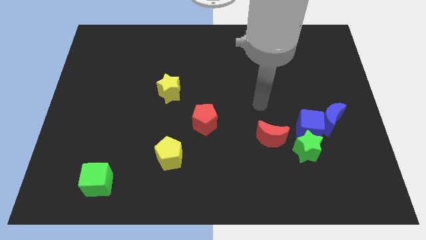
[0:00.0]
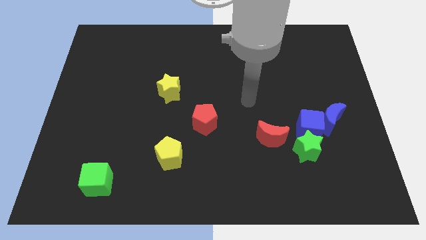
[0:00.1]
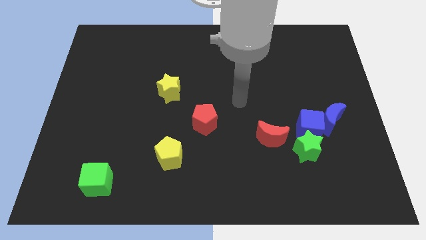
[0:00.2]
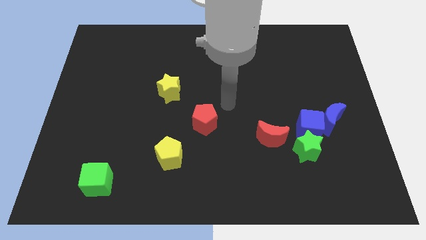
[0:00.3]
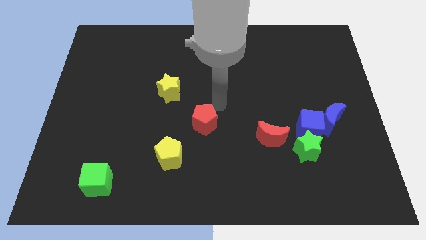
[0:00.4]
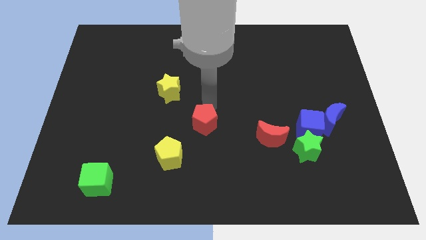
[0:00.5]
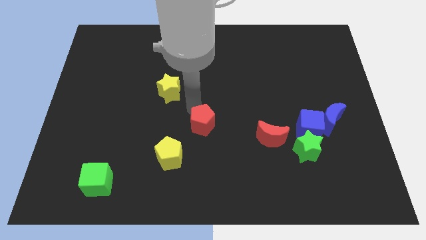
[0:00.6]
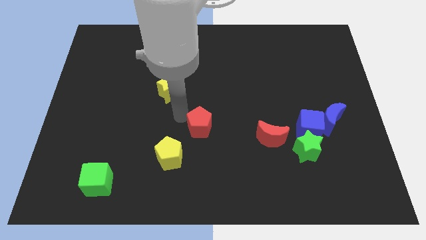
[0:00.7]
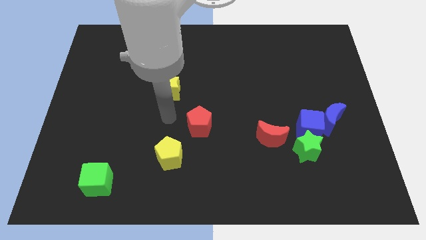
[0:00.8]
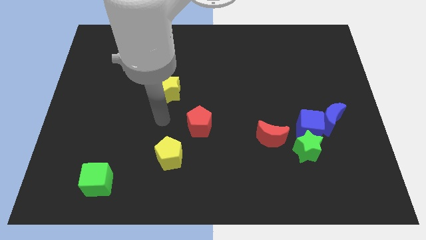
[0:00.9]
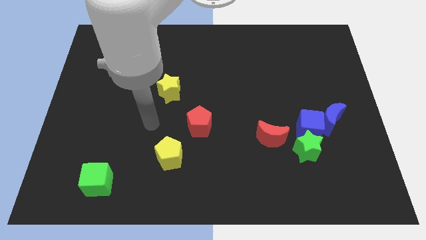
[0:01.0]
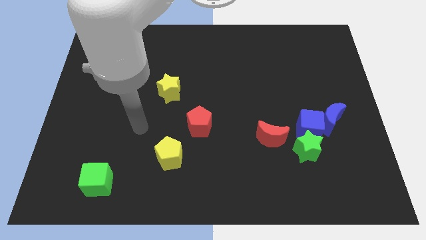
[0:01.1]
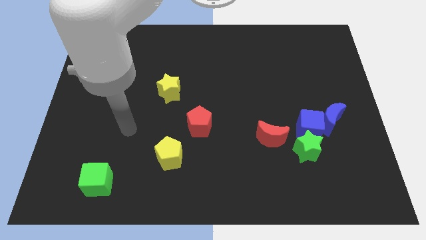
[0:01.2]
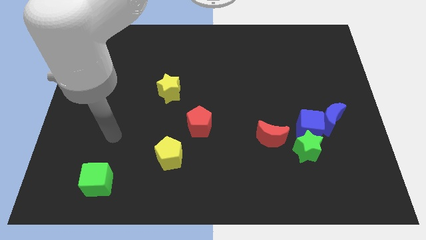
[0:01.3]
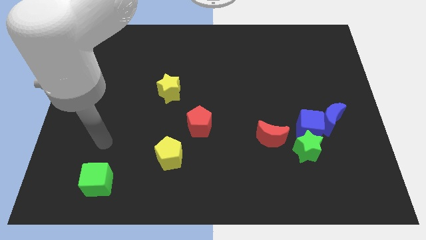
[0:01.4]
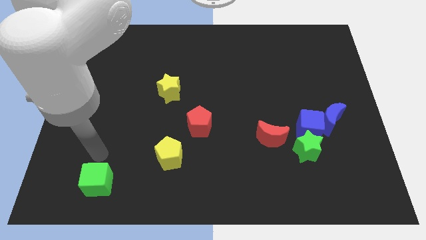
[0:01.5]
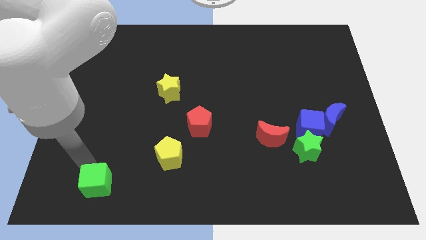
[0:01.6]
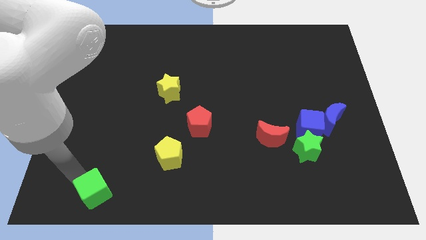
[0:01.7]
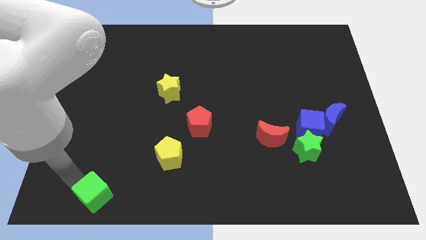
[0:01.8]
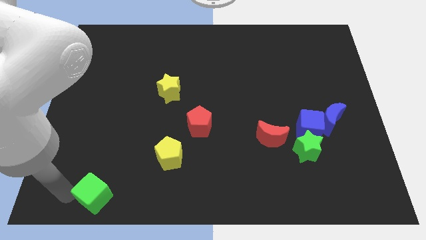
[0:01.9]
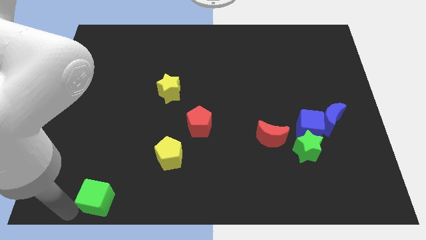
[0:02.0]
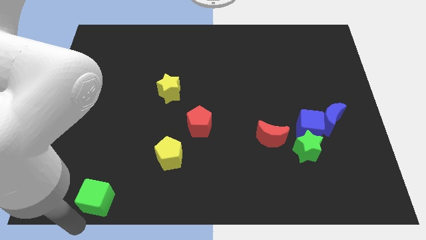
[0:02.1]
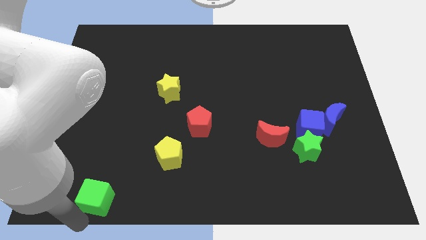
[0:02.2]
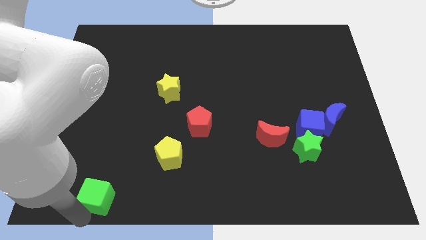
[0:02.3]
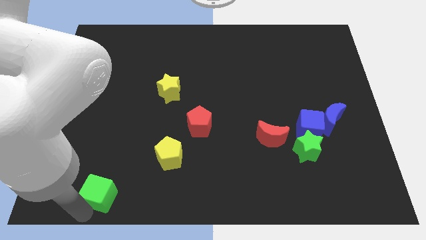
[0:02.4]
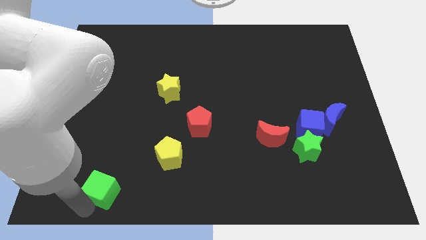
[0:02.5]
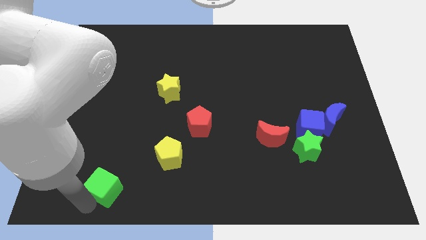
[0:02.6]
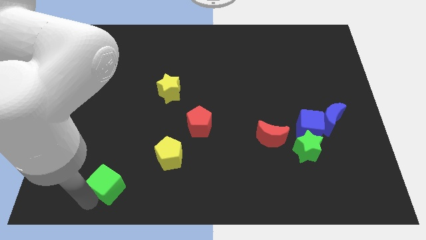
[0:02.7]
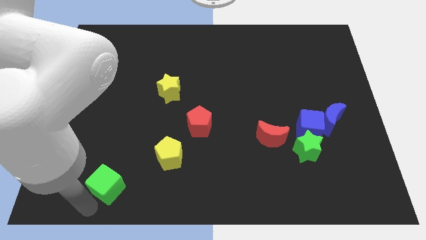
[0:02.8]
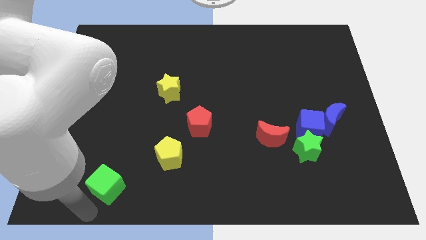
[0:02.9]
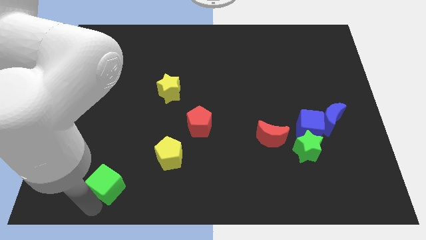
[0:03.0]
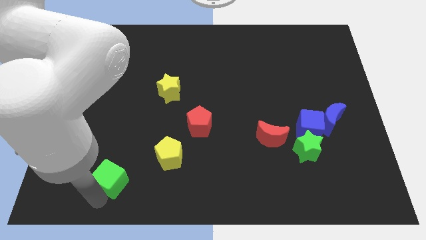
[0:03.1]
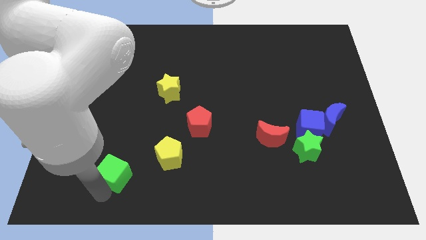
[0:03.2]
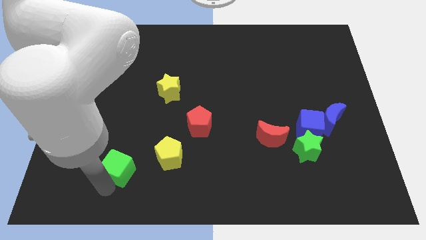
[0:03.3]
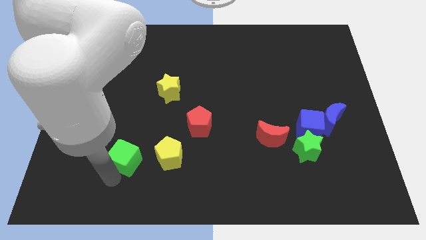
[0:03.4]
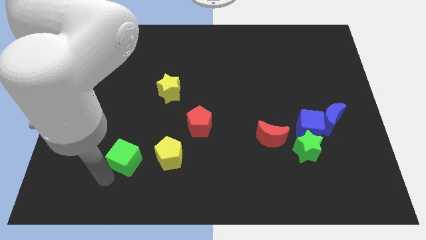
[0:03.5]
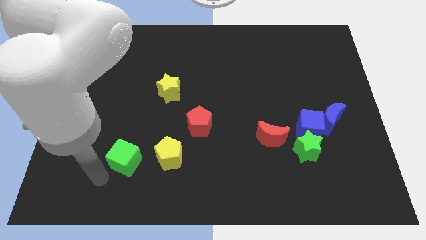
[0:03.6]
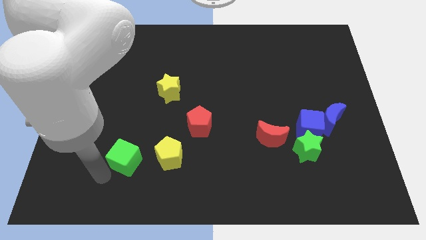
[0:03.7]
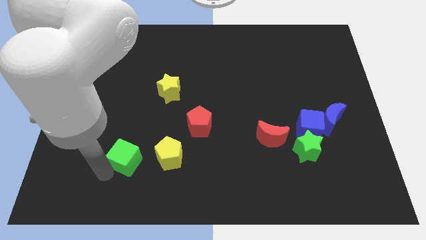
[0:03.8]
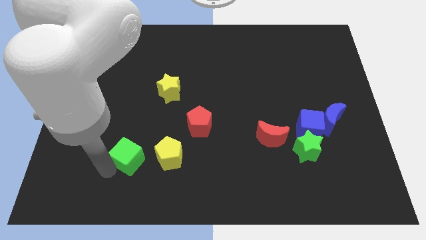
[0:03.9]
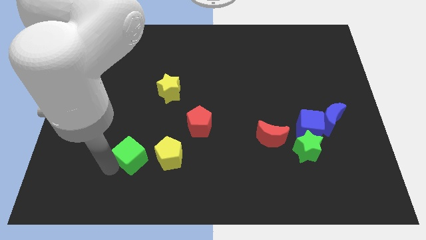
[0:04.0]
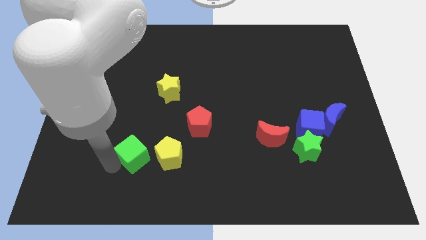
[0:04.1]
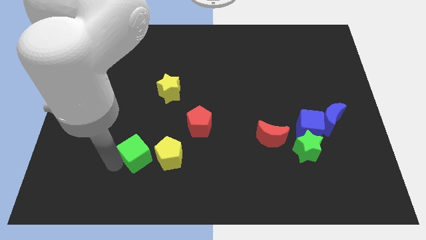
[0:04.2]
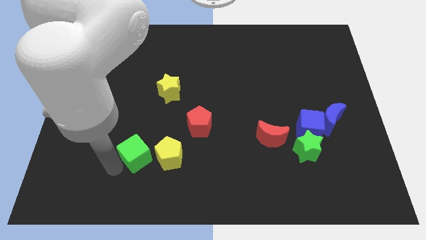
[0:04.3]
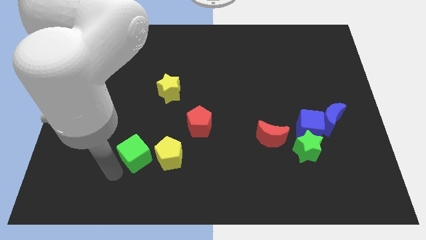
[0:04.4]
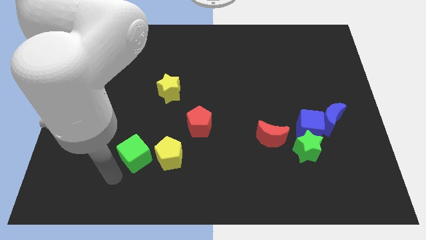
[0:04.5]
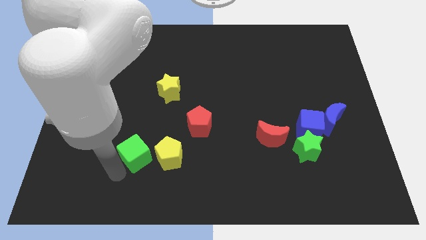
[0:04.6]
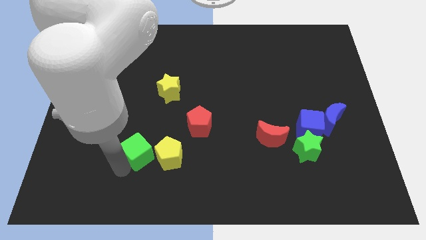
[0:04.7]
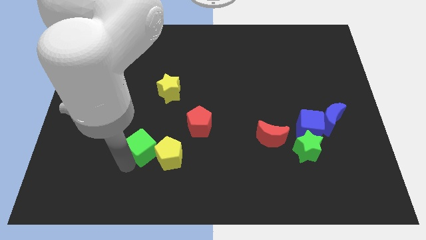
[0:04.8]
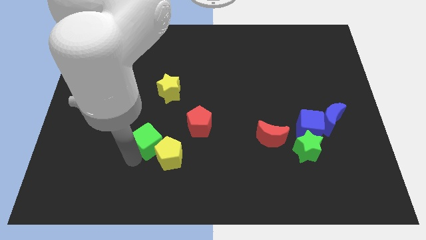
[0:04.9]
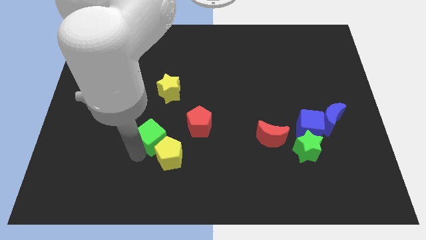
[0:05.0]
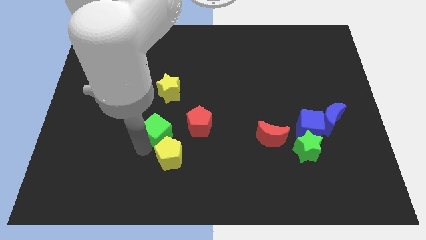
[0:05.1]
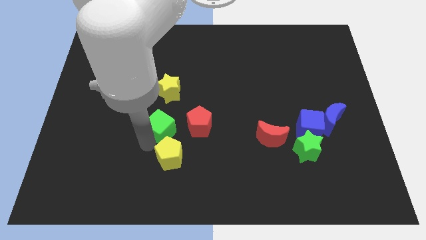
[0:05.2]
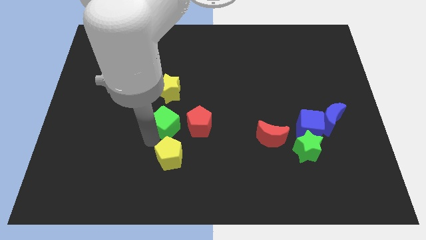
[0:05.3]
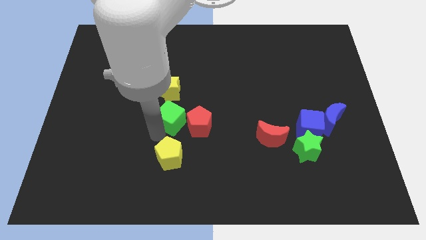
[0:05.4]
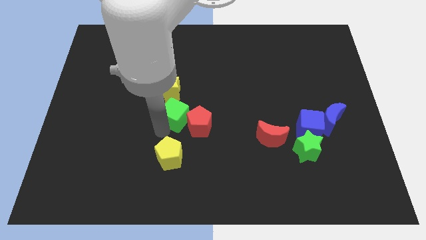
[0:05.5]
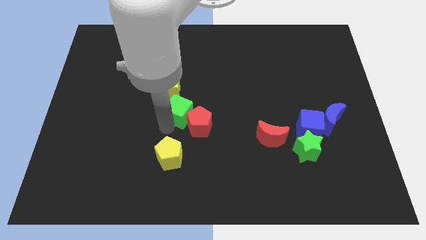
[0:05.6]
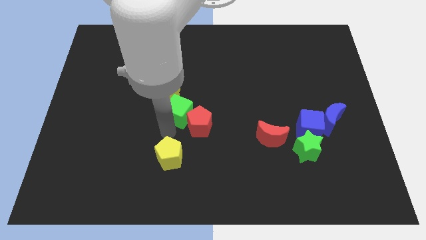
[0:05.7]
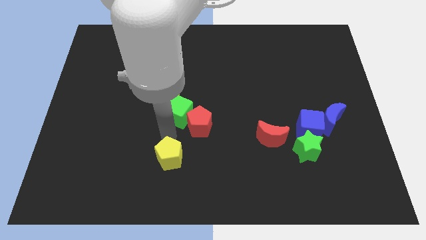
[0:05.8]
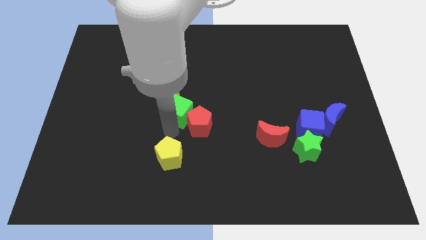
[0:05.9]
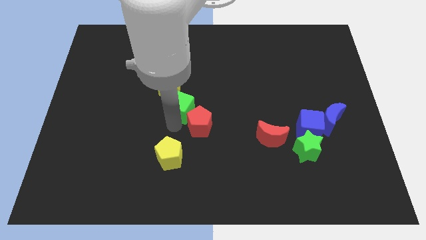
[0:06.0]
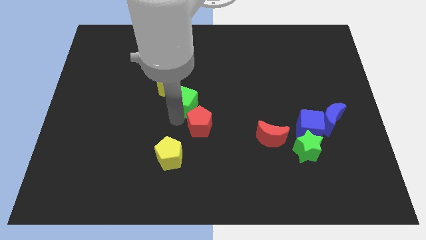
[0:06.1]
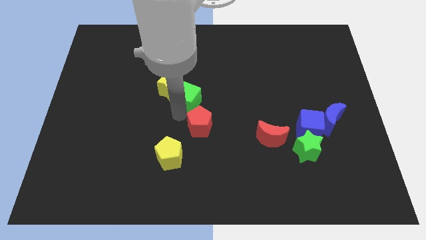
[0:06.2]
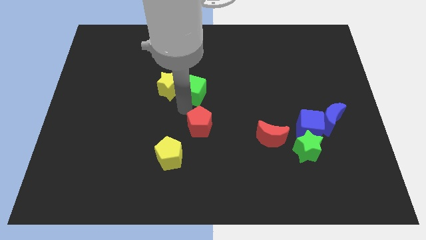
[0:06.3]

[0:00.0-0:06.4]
move the green cube to the top right side of the yellow star

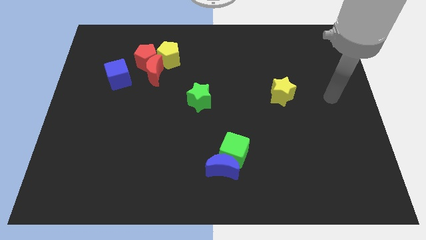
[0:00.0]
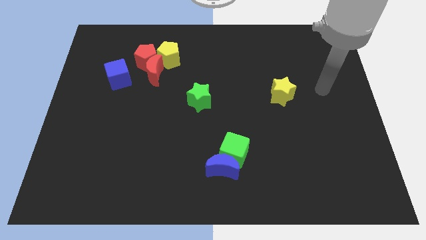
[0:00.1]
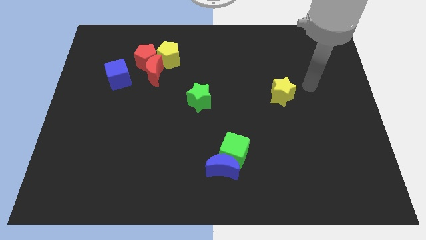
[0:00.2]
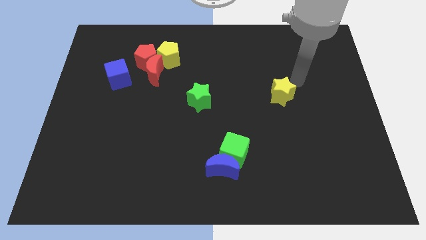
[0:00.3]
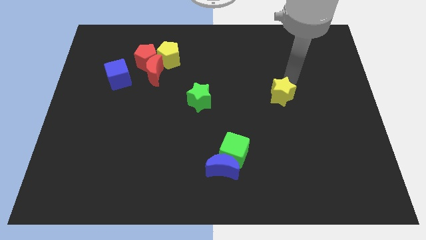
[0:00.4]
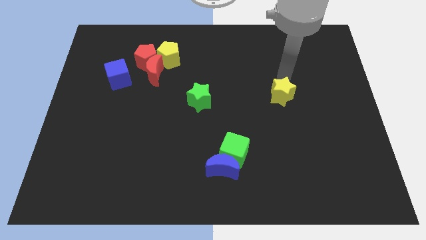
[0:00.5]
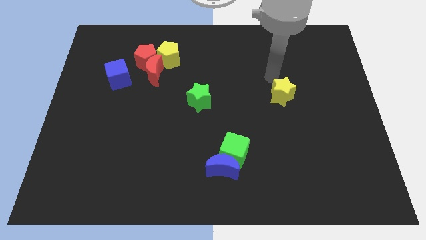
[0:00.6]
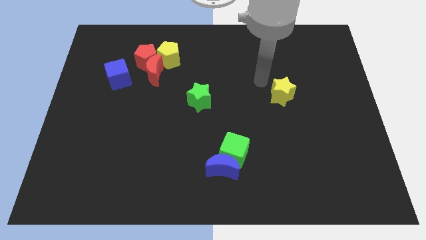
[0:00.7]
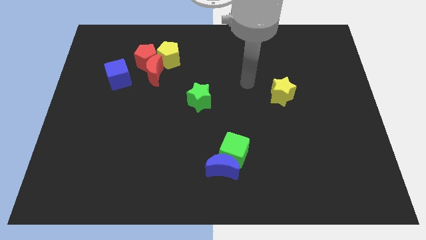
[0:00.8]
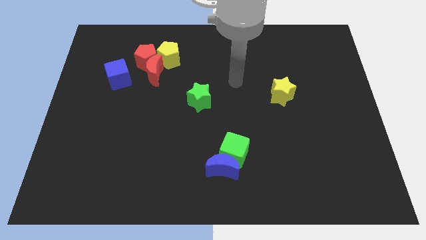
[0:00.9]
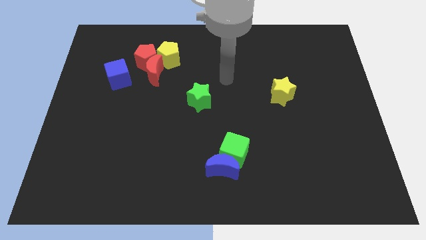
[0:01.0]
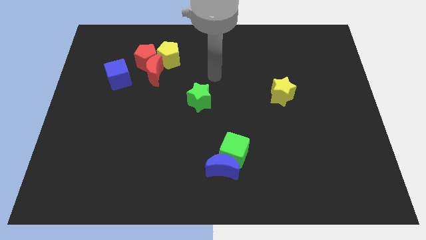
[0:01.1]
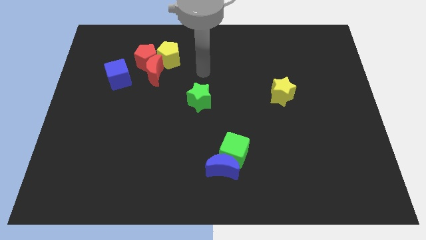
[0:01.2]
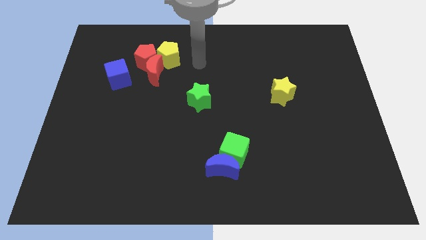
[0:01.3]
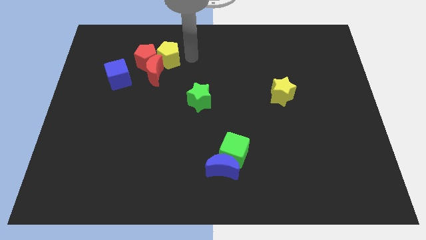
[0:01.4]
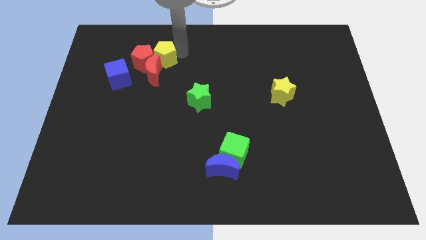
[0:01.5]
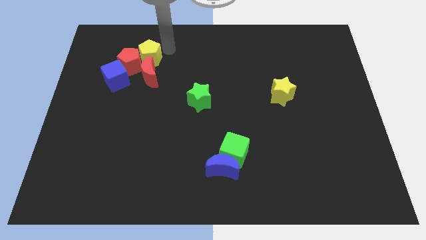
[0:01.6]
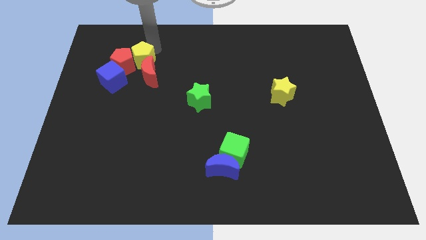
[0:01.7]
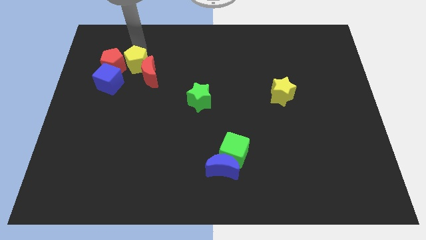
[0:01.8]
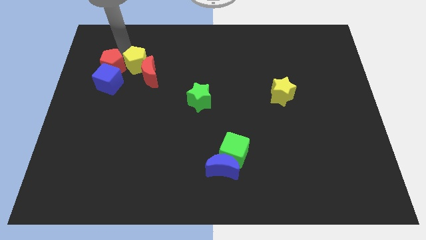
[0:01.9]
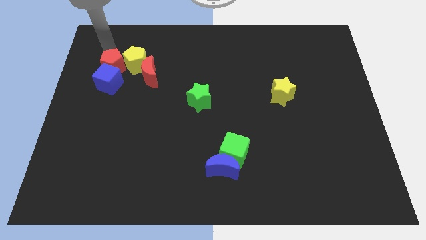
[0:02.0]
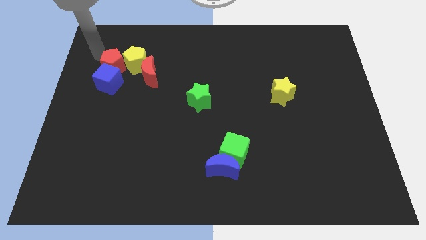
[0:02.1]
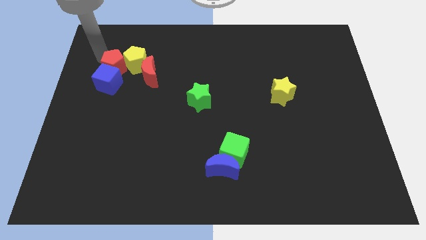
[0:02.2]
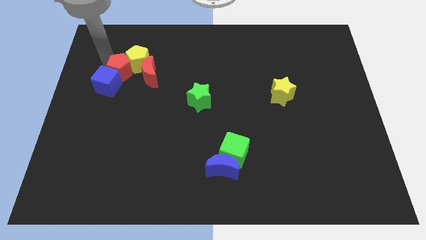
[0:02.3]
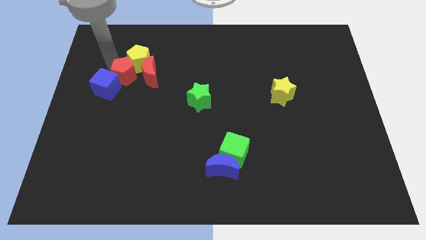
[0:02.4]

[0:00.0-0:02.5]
push the red pentagon to the right of the blue cube
